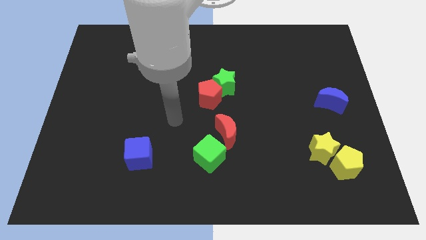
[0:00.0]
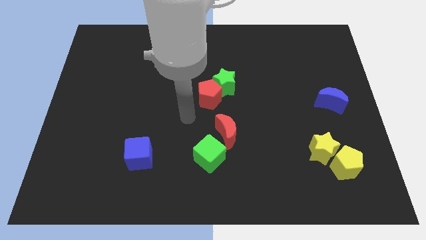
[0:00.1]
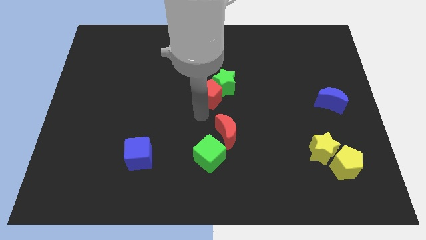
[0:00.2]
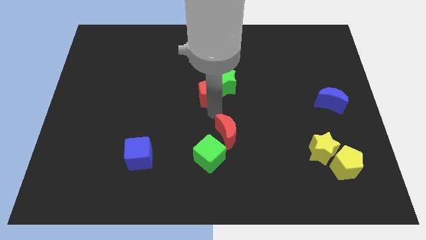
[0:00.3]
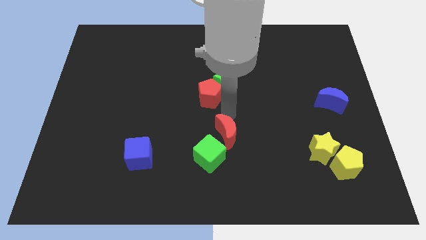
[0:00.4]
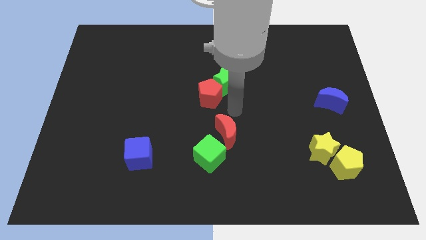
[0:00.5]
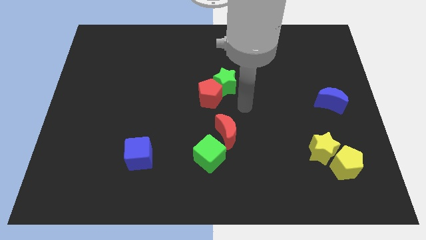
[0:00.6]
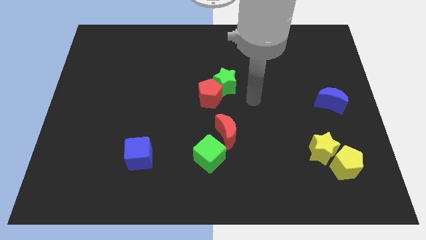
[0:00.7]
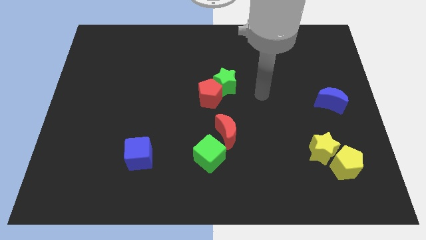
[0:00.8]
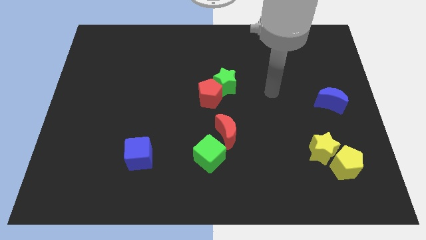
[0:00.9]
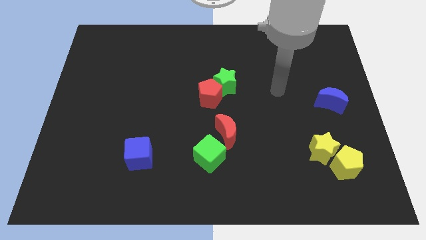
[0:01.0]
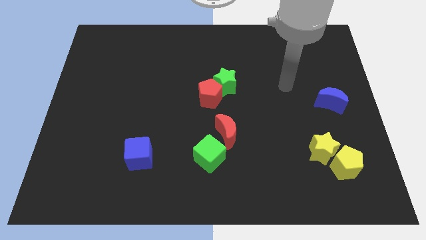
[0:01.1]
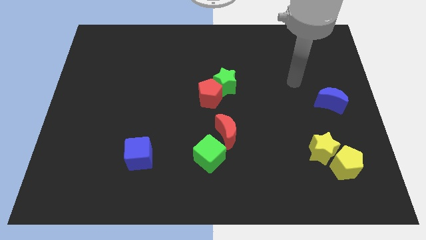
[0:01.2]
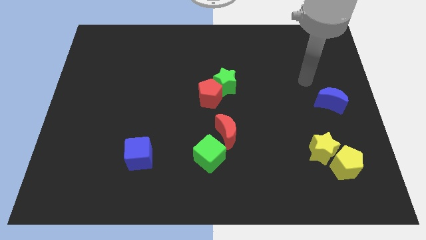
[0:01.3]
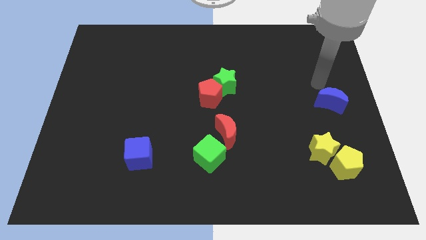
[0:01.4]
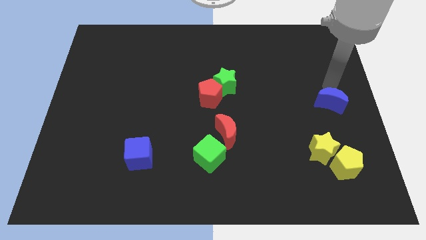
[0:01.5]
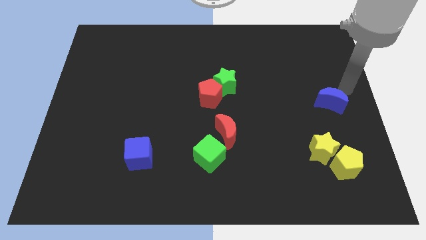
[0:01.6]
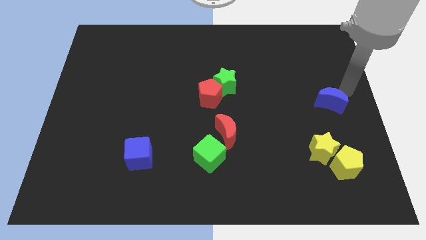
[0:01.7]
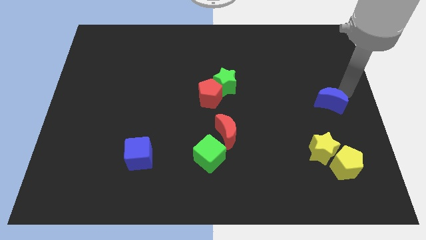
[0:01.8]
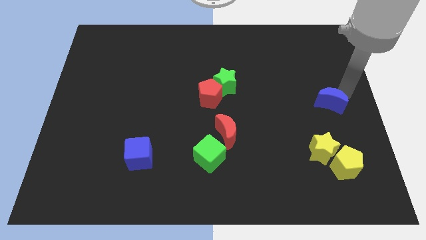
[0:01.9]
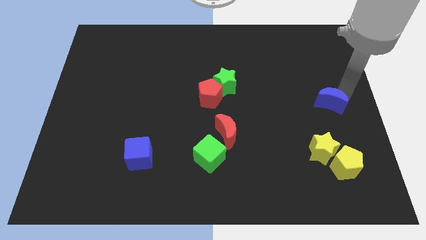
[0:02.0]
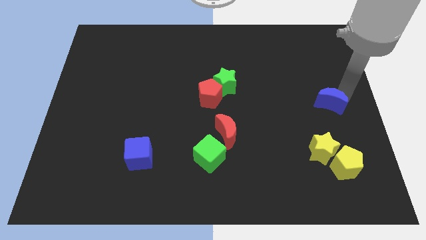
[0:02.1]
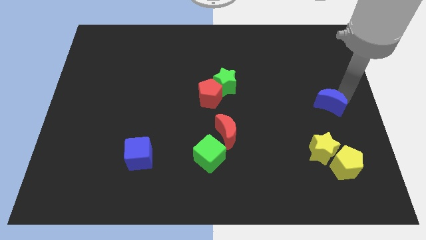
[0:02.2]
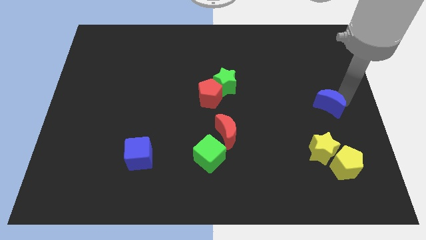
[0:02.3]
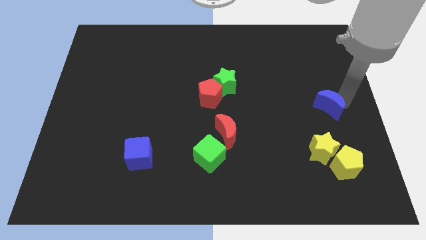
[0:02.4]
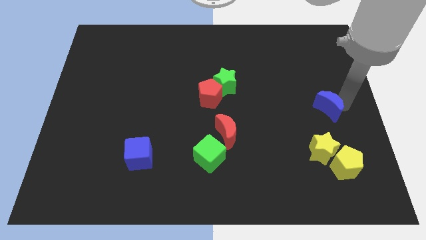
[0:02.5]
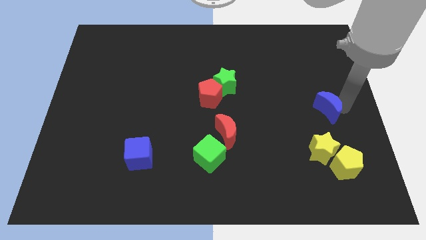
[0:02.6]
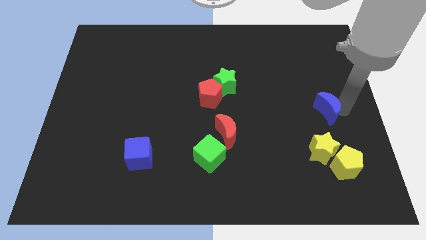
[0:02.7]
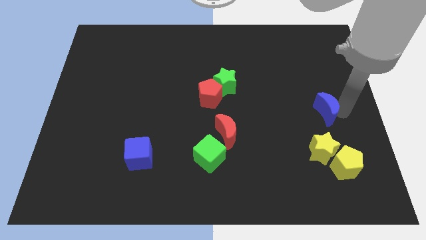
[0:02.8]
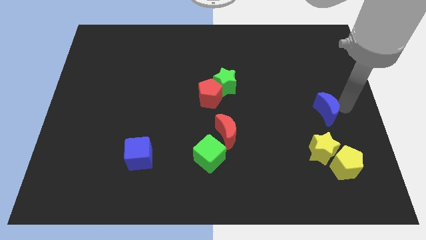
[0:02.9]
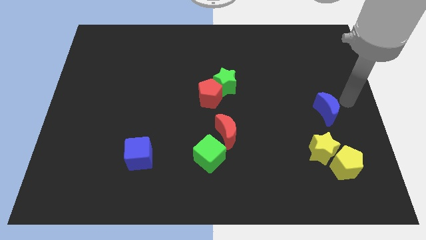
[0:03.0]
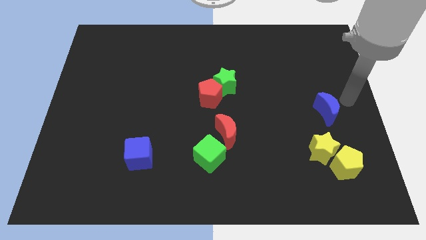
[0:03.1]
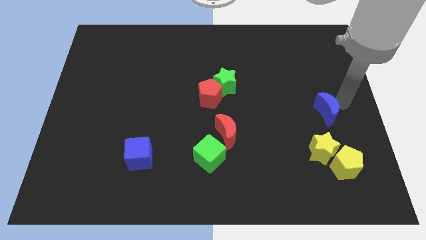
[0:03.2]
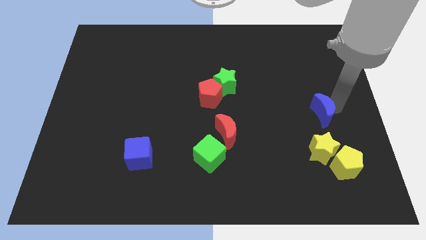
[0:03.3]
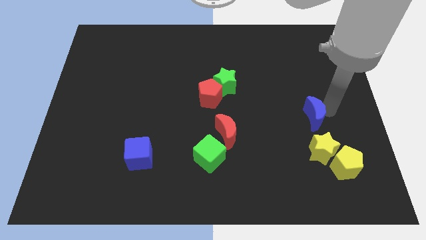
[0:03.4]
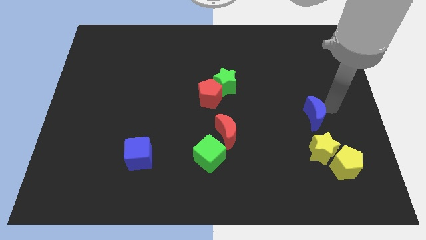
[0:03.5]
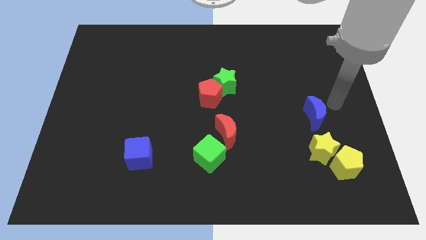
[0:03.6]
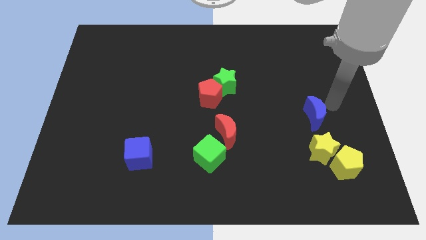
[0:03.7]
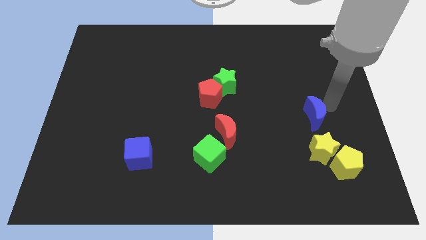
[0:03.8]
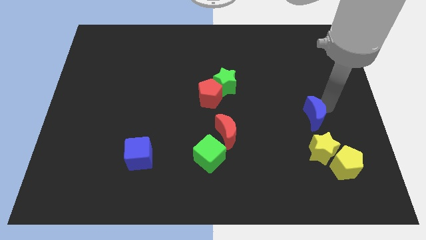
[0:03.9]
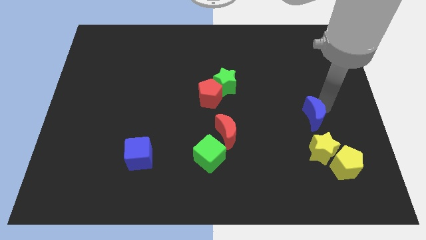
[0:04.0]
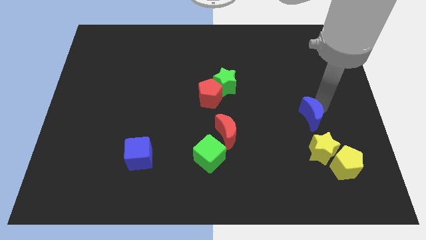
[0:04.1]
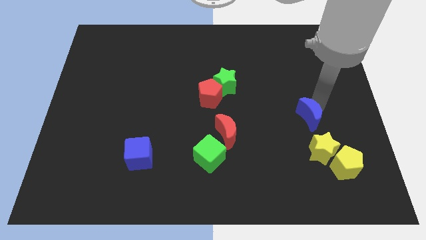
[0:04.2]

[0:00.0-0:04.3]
move the blue moon slightly downwards and then left

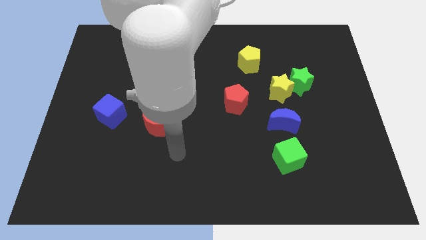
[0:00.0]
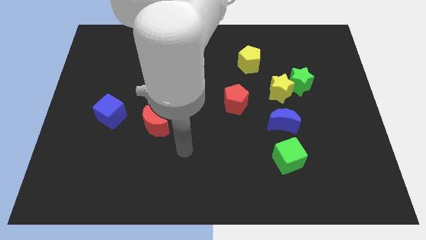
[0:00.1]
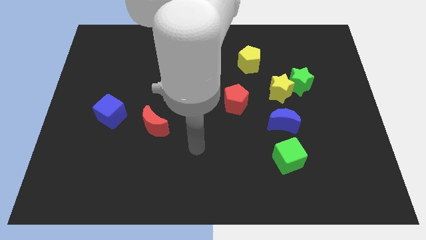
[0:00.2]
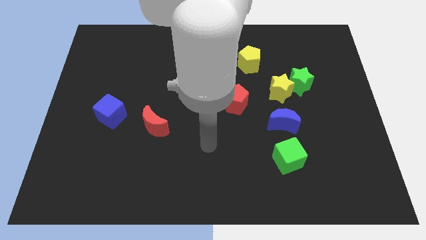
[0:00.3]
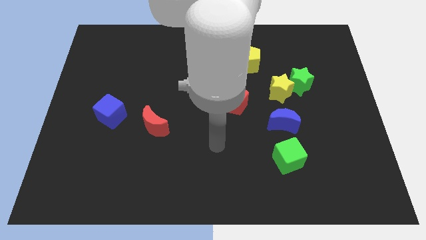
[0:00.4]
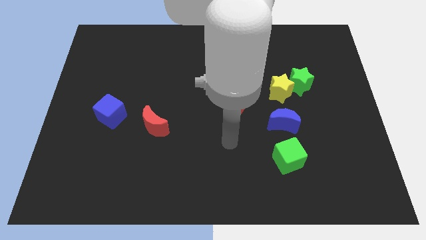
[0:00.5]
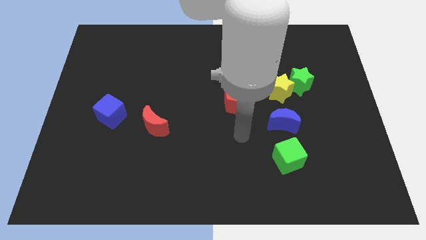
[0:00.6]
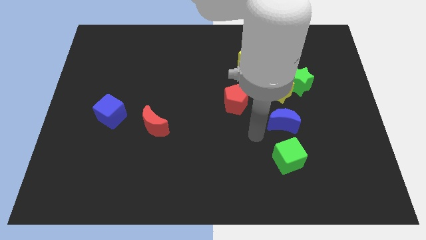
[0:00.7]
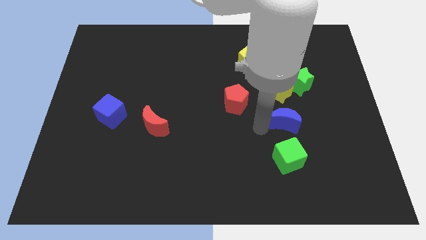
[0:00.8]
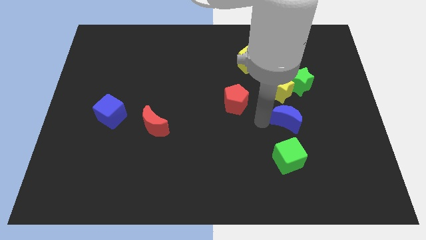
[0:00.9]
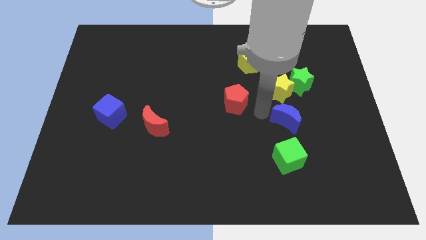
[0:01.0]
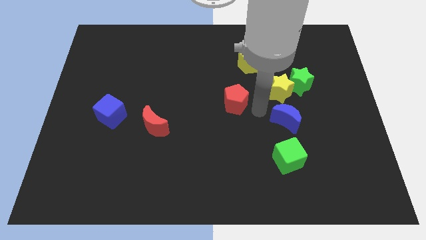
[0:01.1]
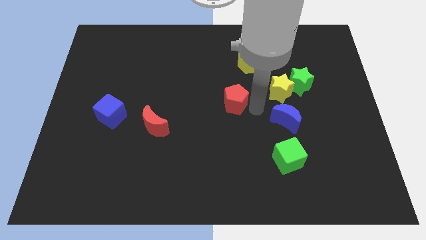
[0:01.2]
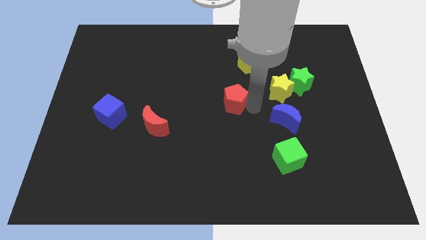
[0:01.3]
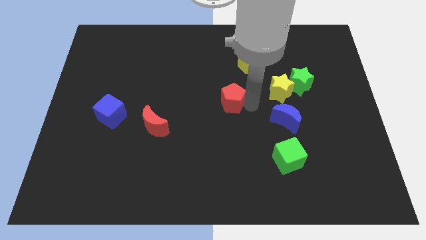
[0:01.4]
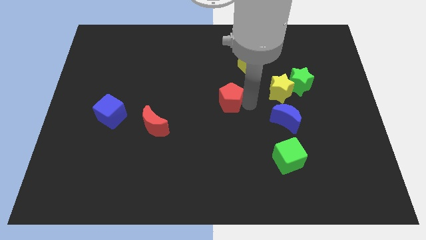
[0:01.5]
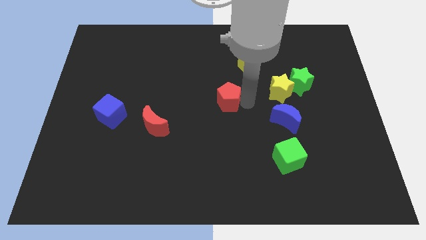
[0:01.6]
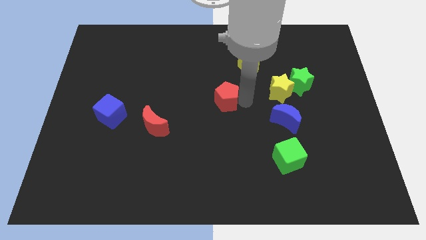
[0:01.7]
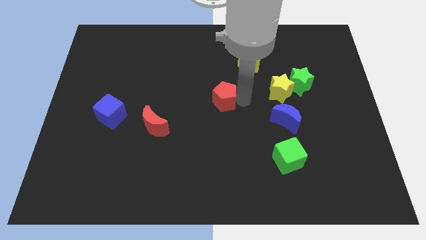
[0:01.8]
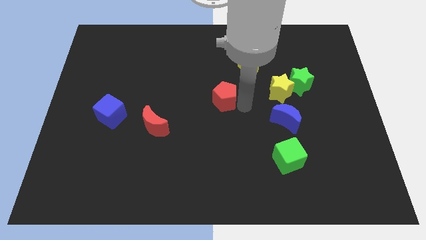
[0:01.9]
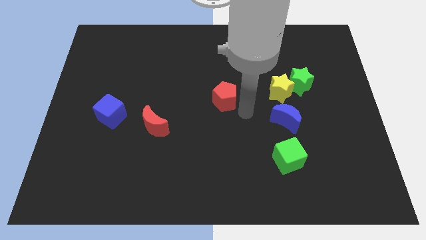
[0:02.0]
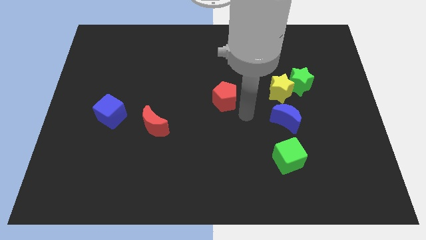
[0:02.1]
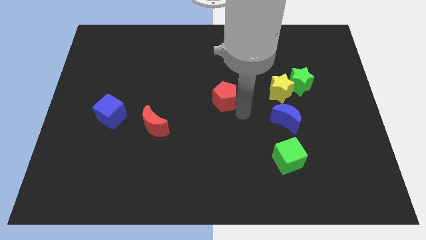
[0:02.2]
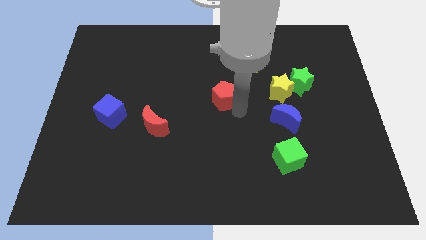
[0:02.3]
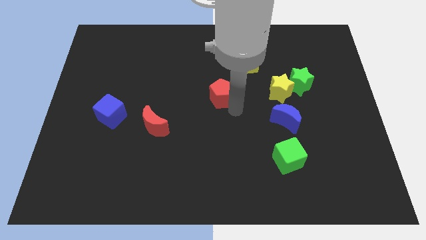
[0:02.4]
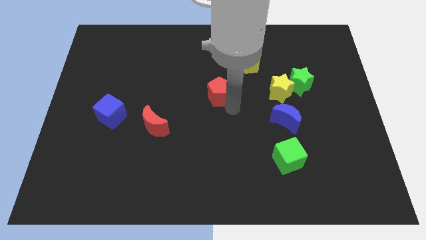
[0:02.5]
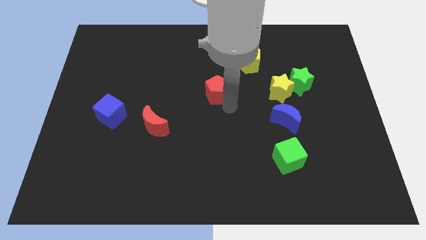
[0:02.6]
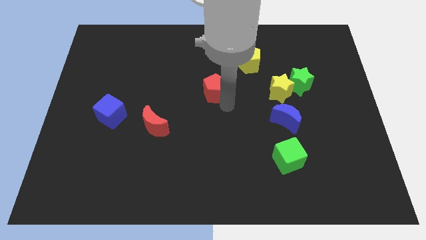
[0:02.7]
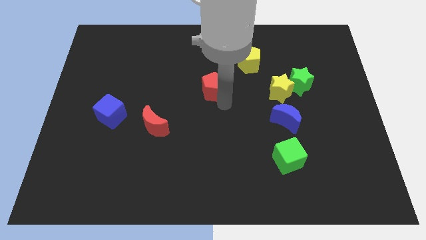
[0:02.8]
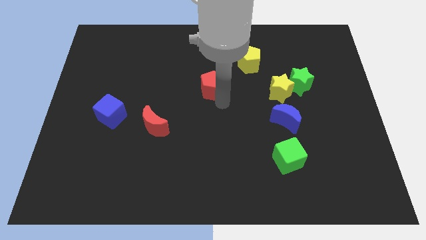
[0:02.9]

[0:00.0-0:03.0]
slide the red pentagon upwards and left diagonally a little bit

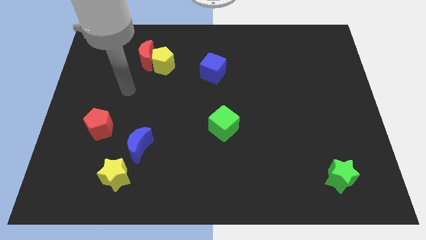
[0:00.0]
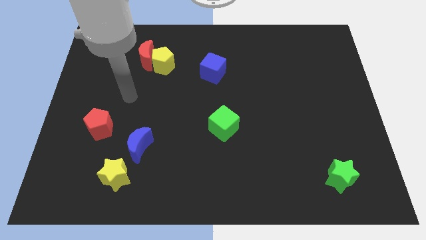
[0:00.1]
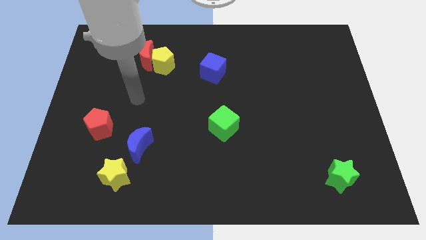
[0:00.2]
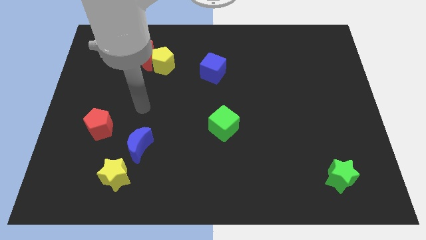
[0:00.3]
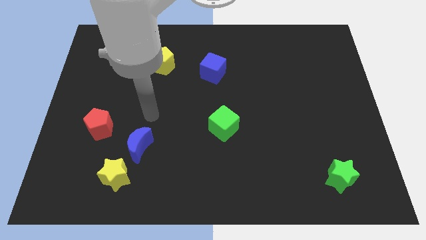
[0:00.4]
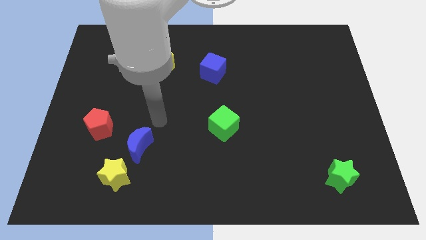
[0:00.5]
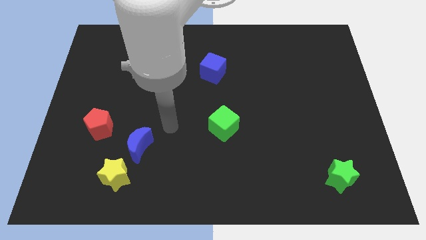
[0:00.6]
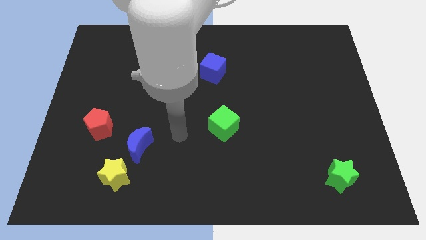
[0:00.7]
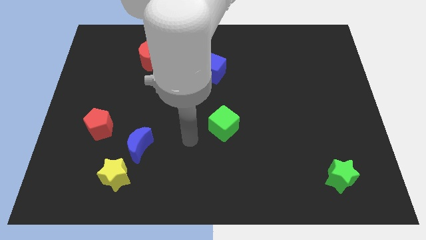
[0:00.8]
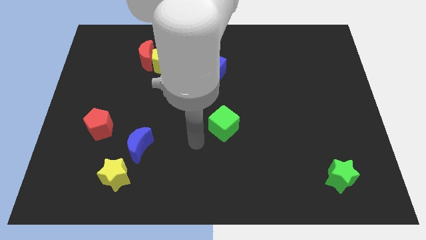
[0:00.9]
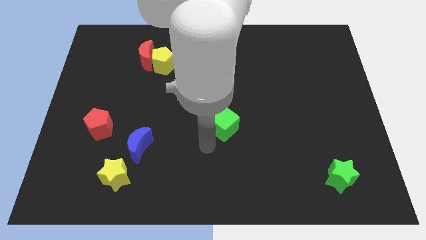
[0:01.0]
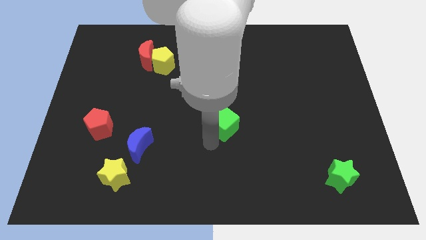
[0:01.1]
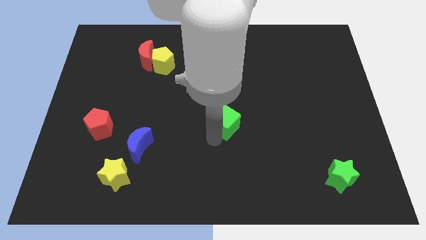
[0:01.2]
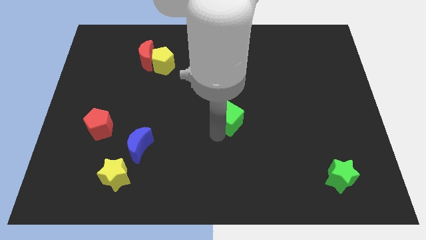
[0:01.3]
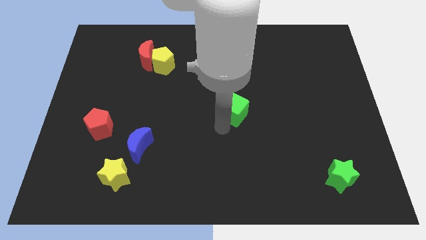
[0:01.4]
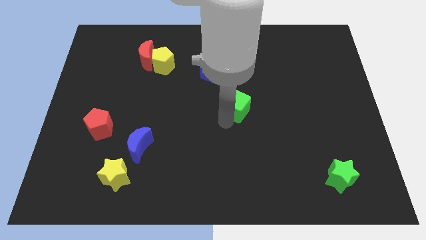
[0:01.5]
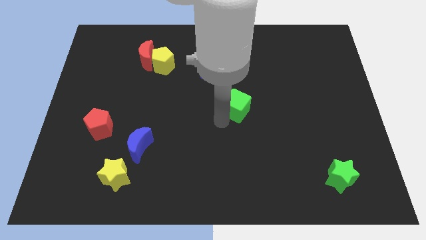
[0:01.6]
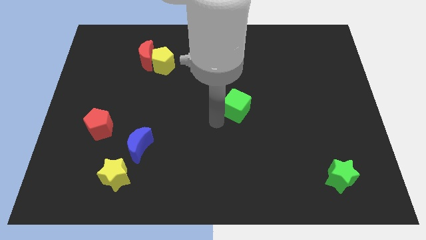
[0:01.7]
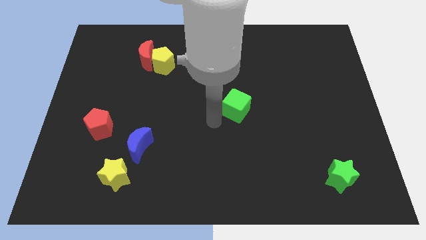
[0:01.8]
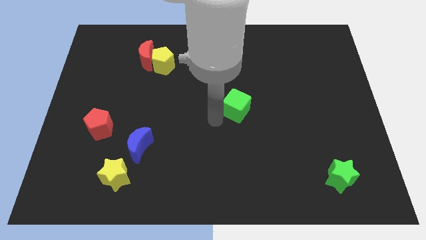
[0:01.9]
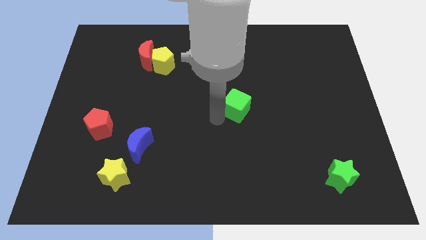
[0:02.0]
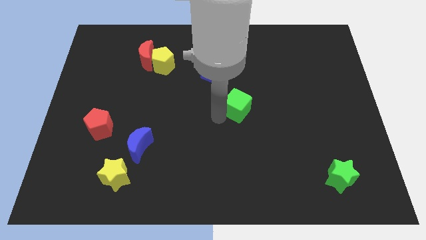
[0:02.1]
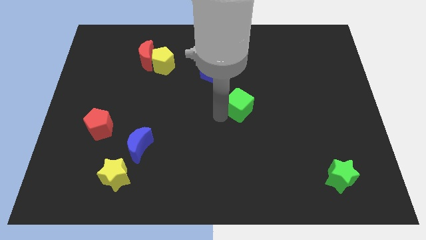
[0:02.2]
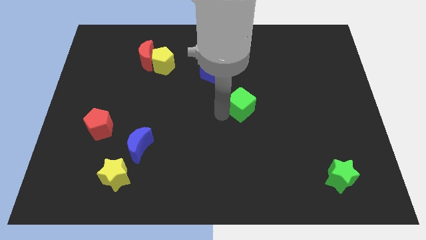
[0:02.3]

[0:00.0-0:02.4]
slide the green cube upwards and right diagonally slightly
